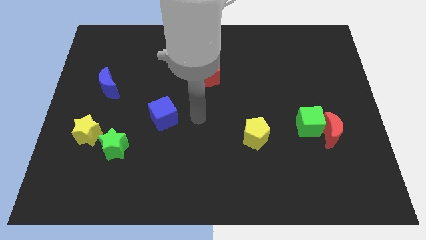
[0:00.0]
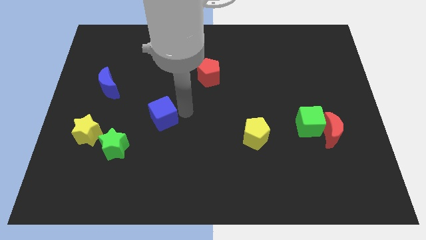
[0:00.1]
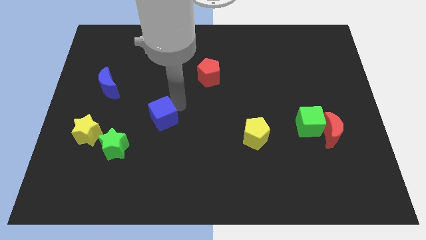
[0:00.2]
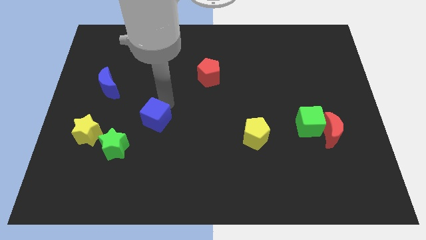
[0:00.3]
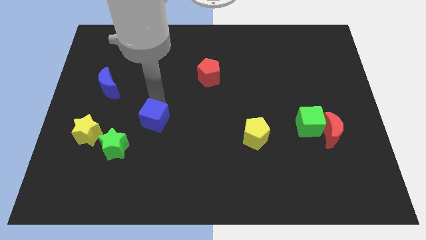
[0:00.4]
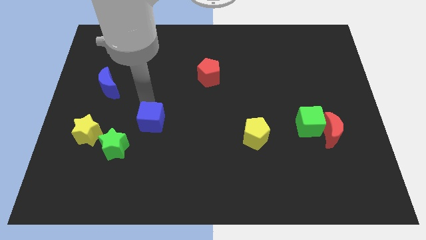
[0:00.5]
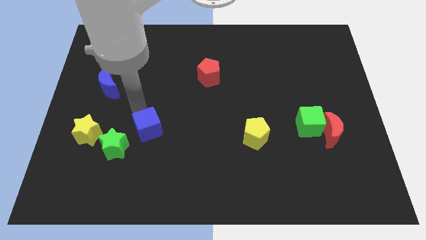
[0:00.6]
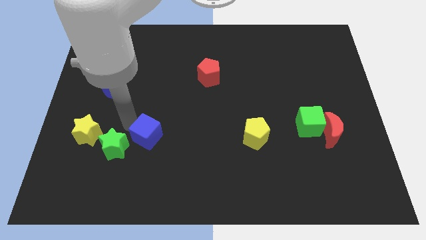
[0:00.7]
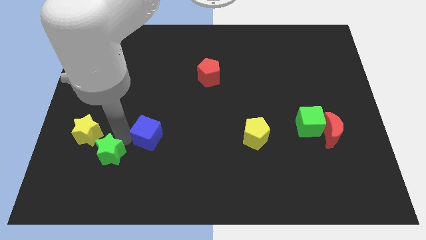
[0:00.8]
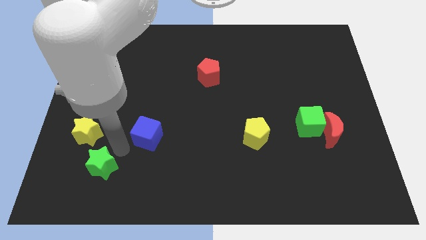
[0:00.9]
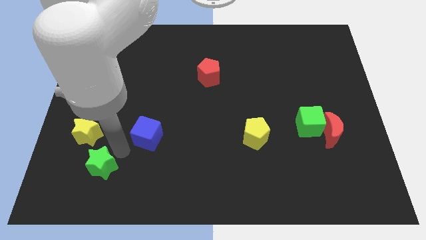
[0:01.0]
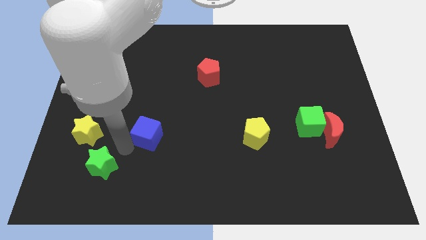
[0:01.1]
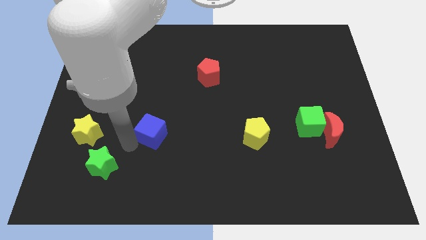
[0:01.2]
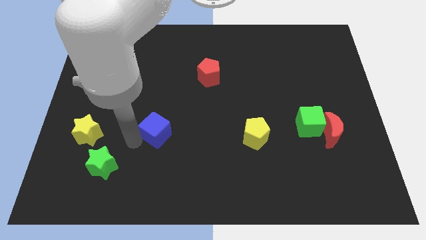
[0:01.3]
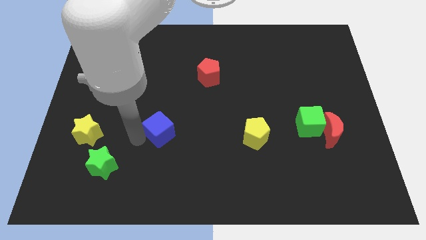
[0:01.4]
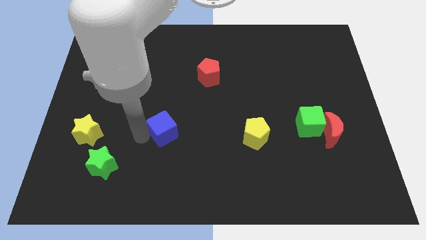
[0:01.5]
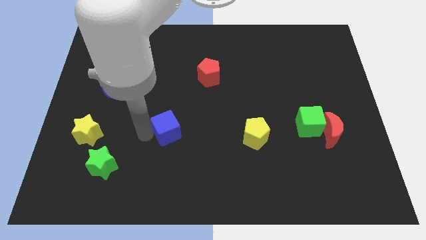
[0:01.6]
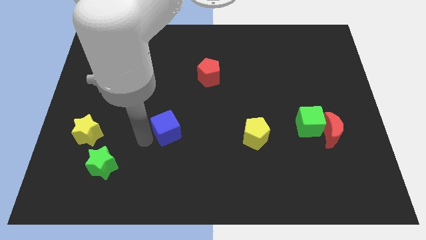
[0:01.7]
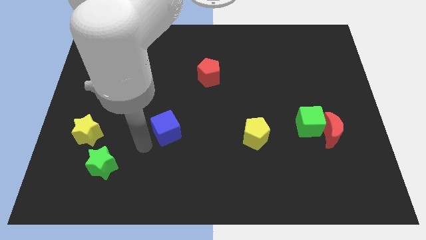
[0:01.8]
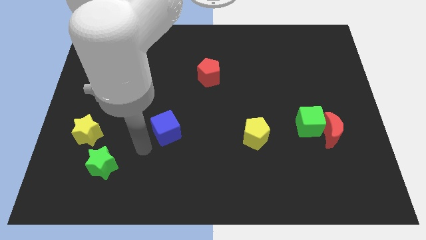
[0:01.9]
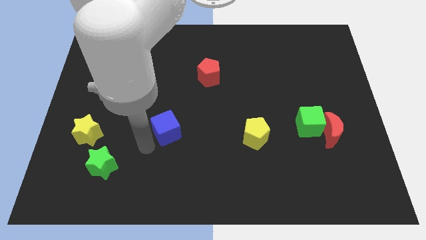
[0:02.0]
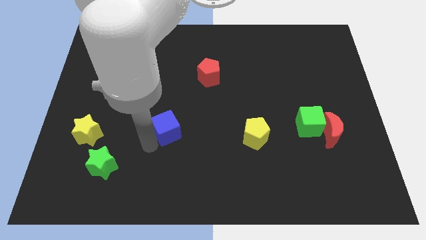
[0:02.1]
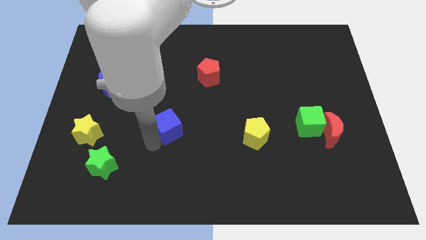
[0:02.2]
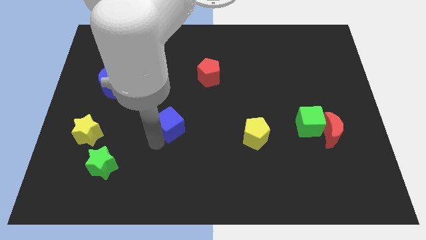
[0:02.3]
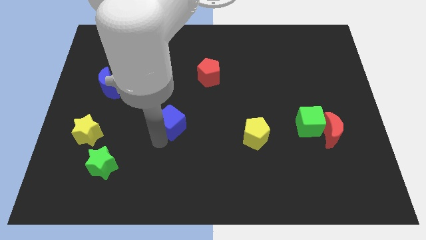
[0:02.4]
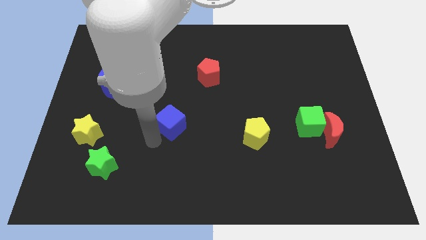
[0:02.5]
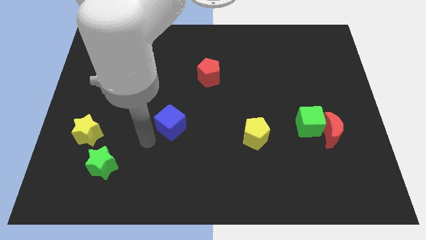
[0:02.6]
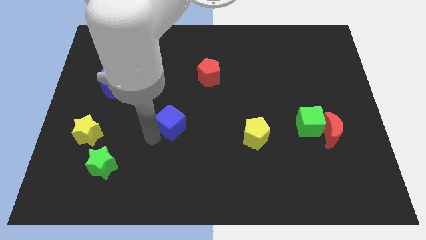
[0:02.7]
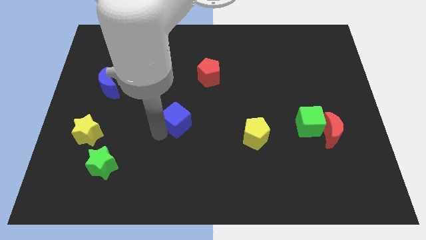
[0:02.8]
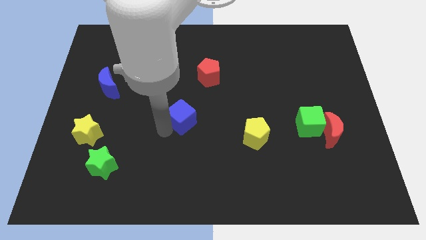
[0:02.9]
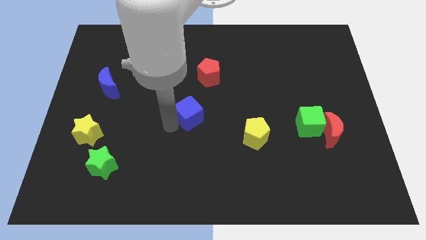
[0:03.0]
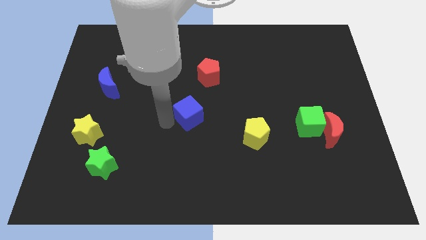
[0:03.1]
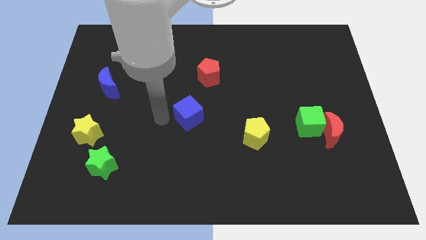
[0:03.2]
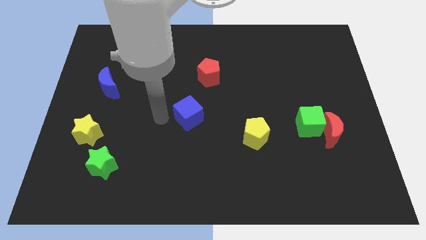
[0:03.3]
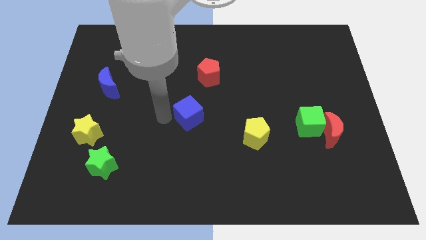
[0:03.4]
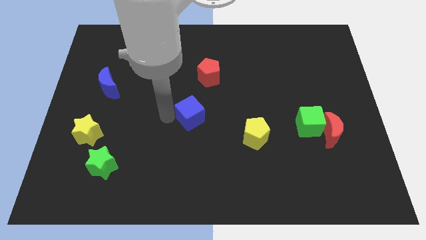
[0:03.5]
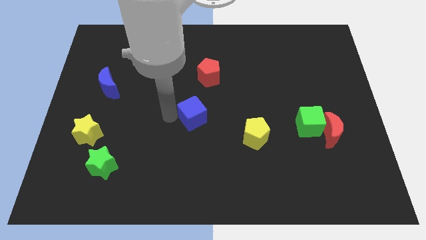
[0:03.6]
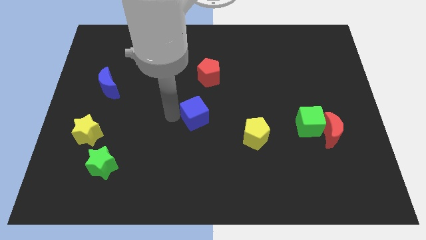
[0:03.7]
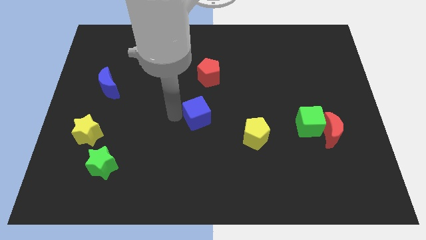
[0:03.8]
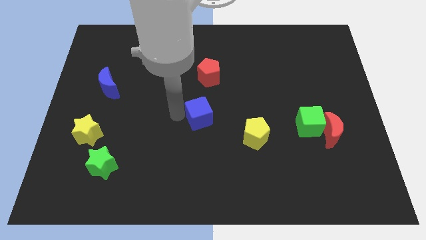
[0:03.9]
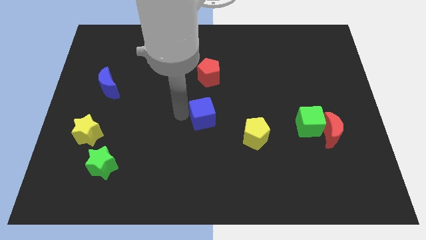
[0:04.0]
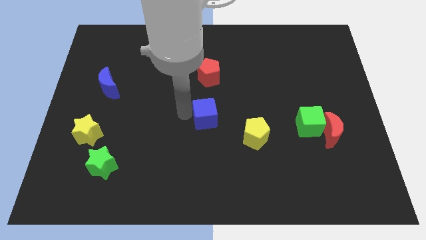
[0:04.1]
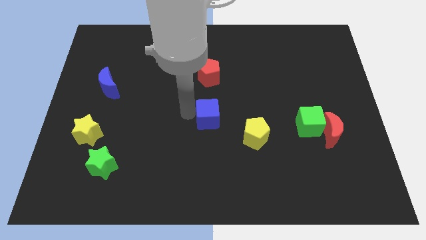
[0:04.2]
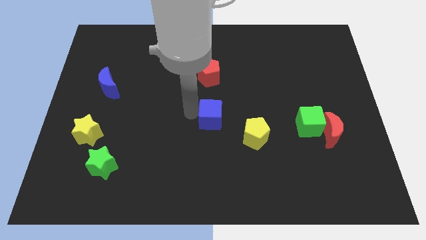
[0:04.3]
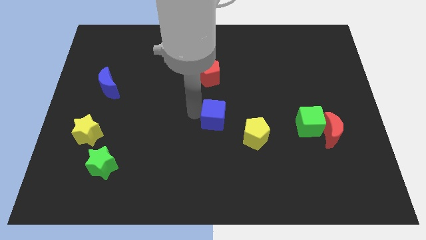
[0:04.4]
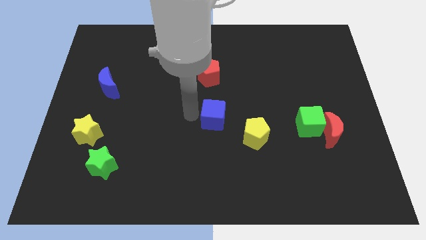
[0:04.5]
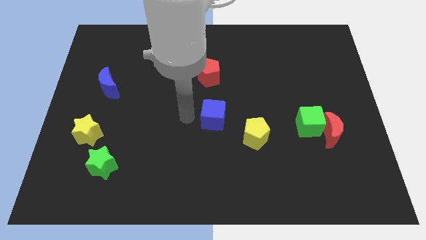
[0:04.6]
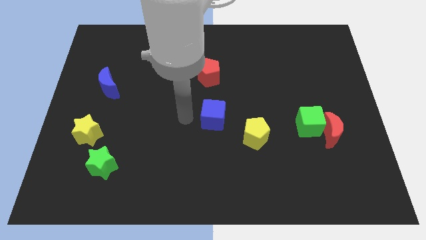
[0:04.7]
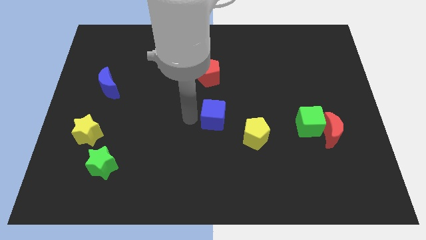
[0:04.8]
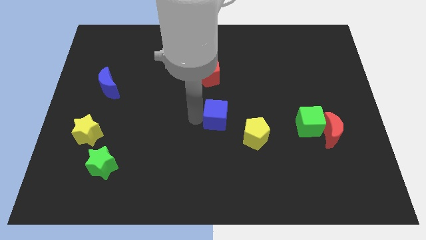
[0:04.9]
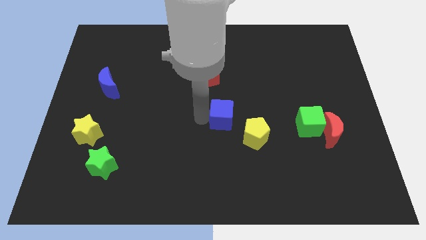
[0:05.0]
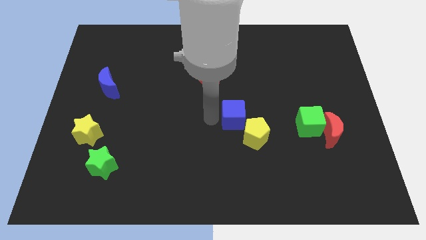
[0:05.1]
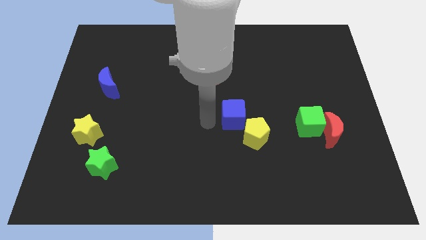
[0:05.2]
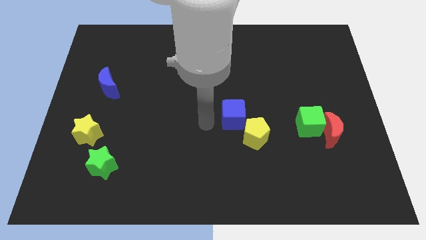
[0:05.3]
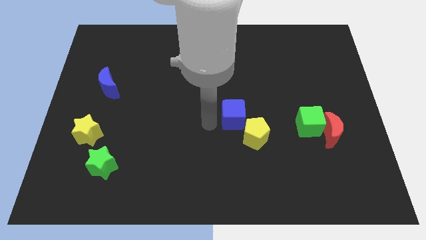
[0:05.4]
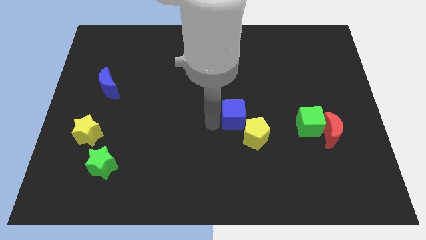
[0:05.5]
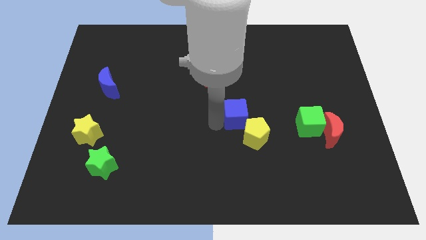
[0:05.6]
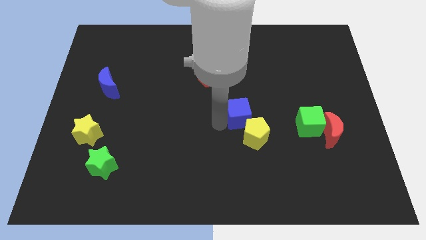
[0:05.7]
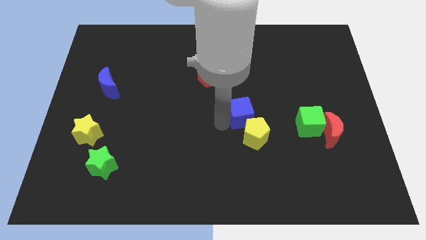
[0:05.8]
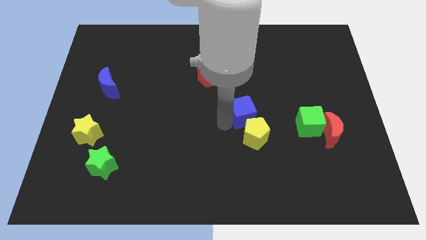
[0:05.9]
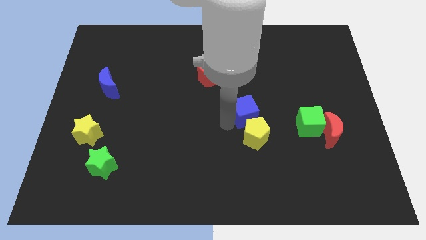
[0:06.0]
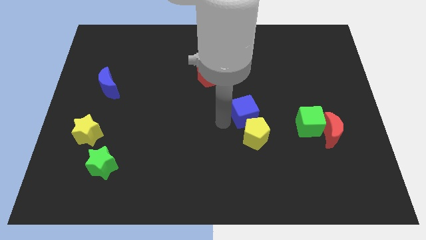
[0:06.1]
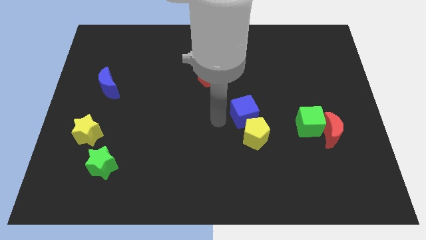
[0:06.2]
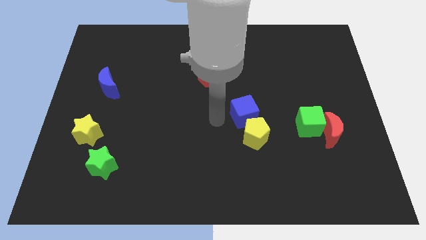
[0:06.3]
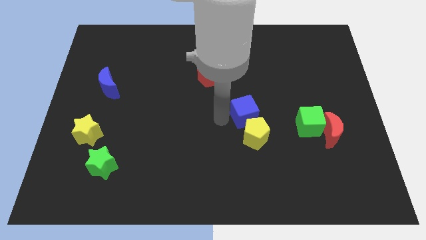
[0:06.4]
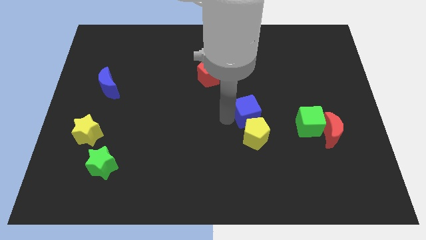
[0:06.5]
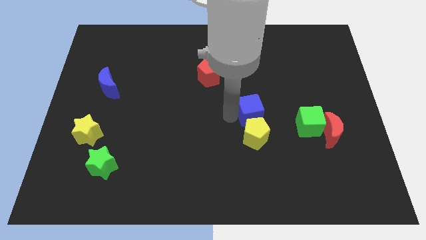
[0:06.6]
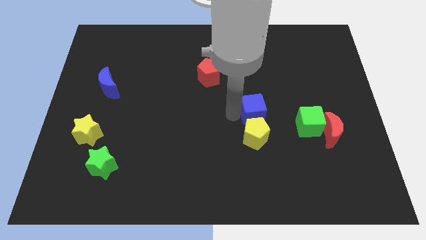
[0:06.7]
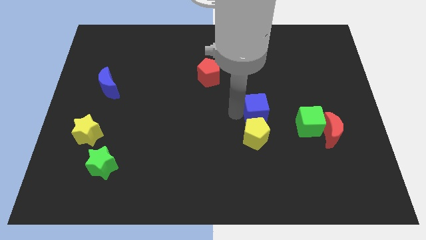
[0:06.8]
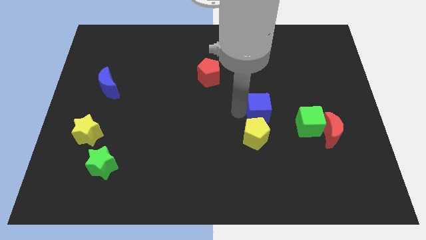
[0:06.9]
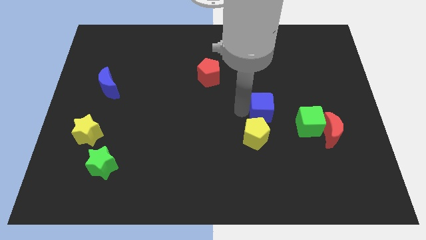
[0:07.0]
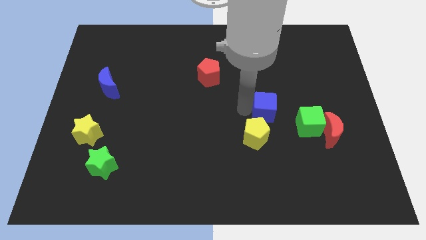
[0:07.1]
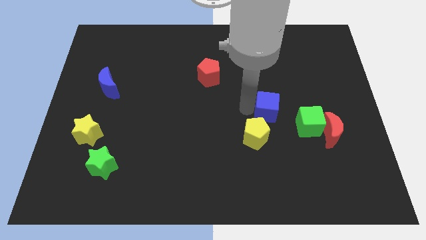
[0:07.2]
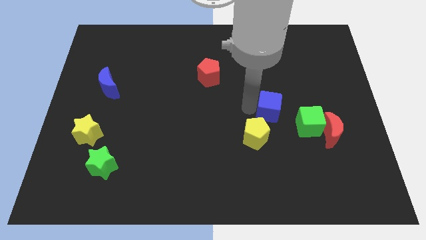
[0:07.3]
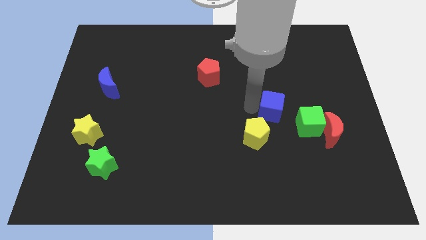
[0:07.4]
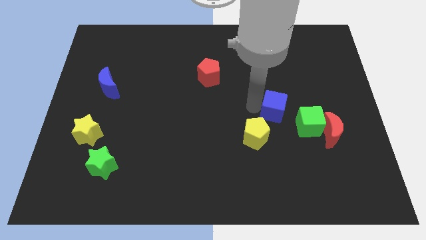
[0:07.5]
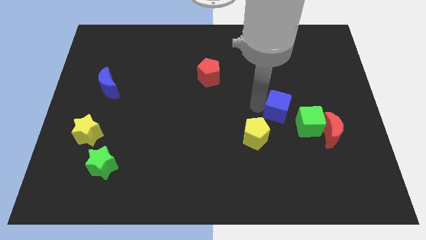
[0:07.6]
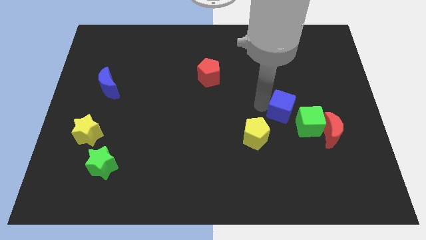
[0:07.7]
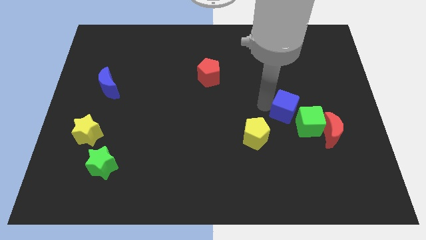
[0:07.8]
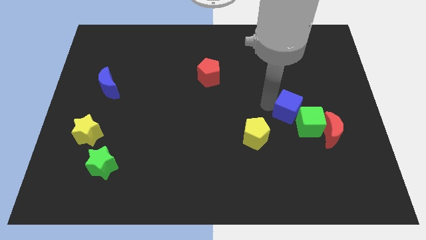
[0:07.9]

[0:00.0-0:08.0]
put the blue cube close to the green cube
